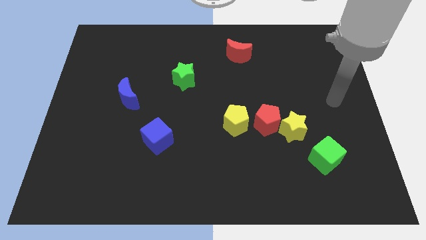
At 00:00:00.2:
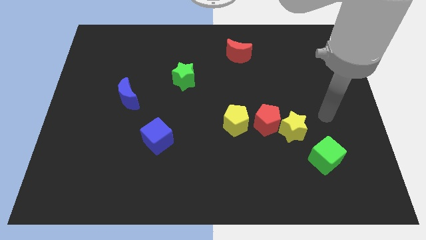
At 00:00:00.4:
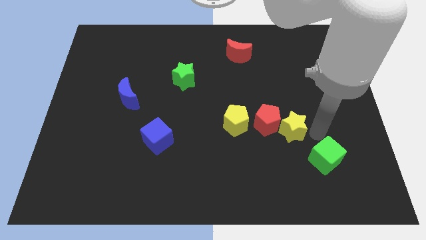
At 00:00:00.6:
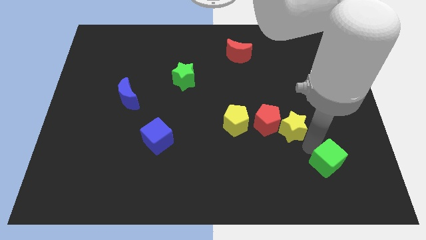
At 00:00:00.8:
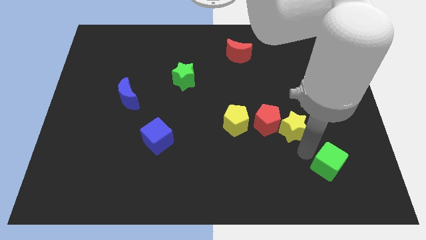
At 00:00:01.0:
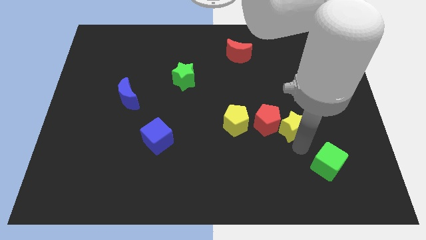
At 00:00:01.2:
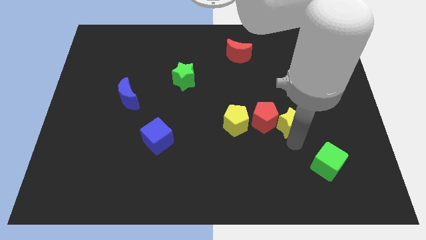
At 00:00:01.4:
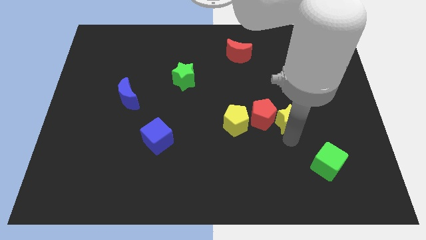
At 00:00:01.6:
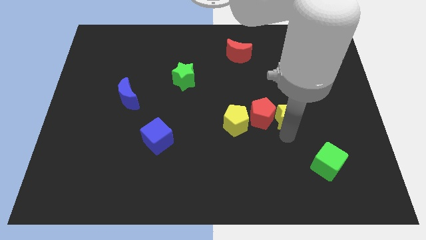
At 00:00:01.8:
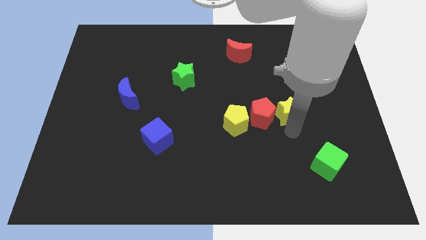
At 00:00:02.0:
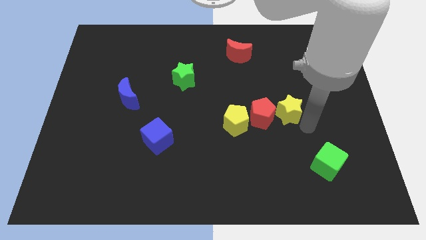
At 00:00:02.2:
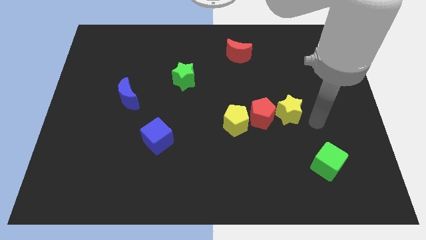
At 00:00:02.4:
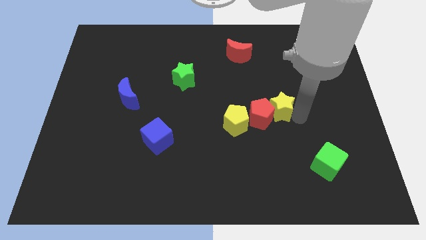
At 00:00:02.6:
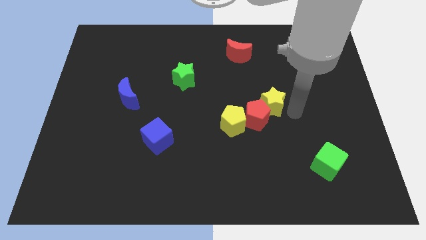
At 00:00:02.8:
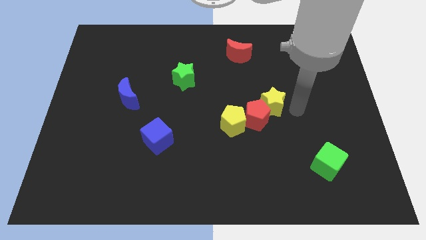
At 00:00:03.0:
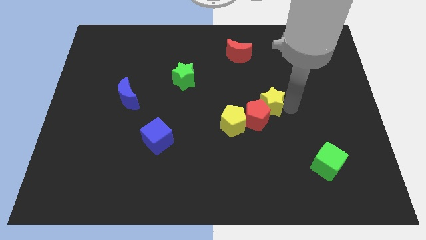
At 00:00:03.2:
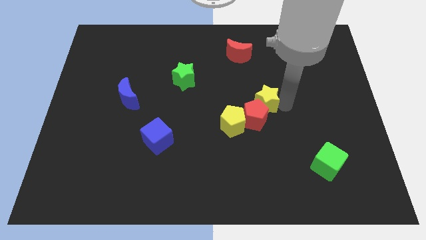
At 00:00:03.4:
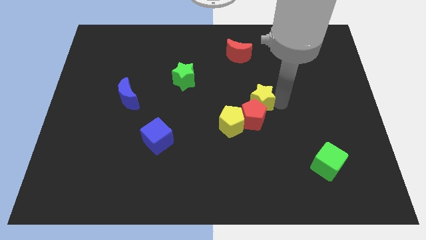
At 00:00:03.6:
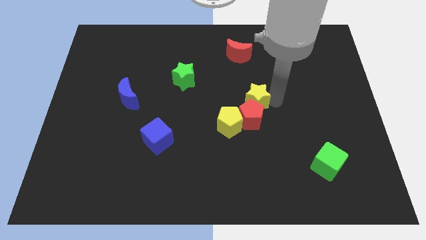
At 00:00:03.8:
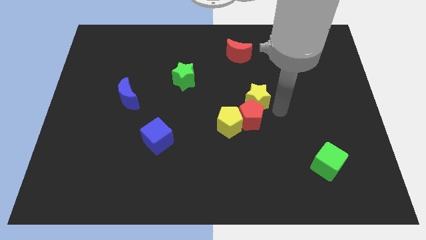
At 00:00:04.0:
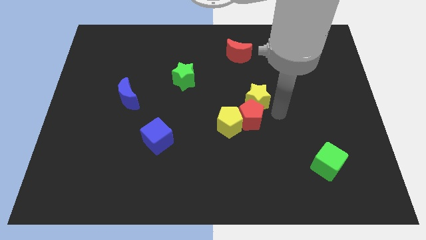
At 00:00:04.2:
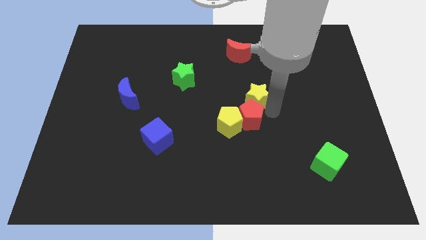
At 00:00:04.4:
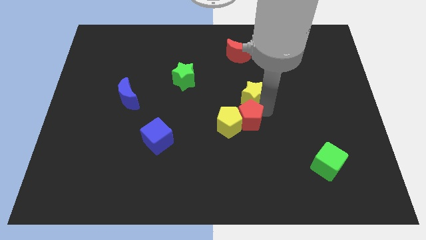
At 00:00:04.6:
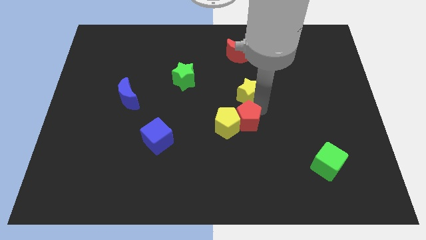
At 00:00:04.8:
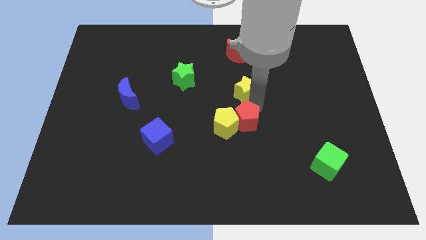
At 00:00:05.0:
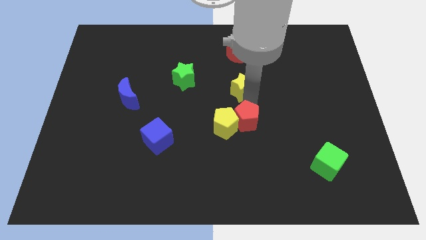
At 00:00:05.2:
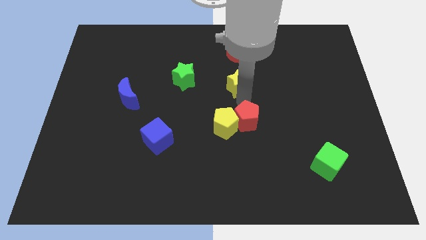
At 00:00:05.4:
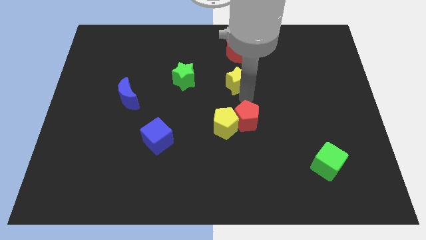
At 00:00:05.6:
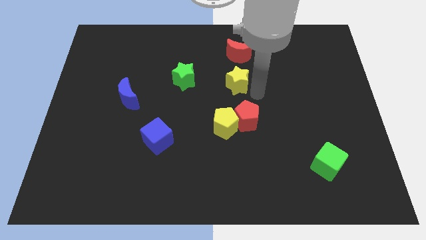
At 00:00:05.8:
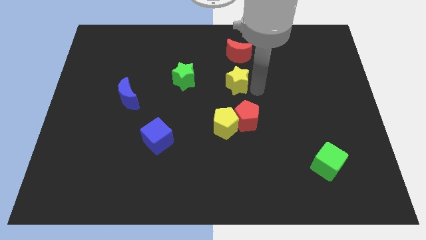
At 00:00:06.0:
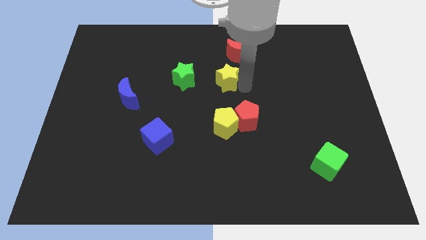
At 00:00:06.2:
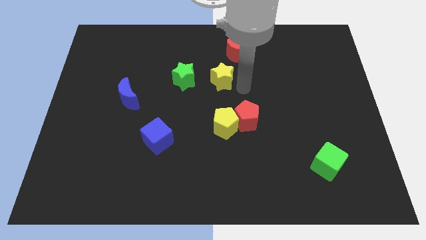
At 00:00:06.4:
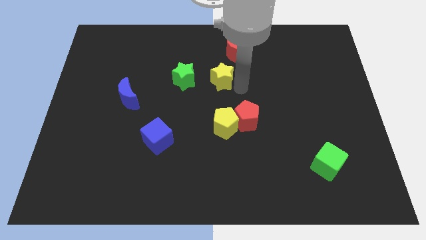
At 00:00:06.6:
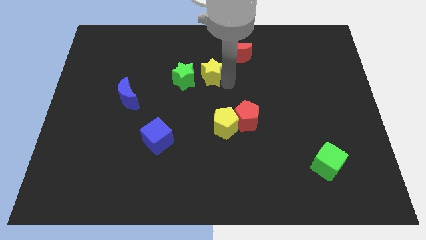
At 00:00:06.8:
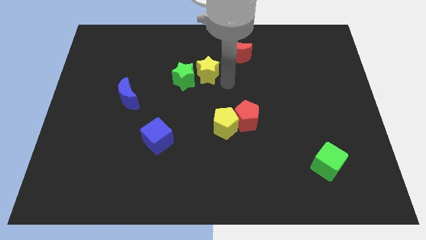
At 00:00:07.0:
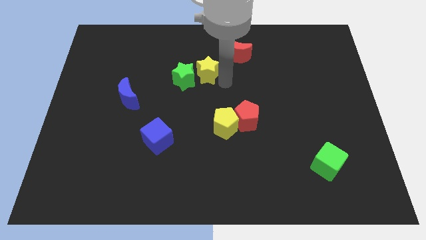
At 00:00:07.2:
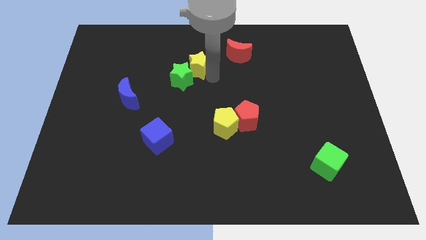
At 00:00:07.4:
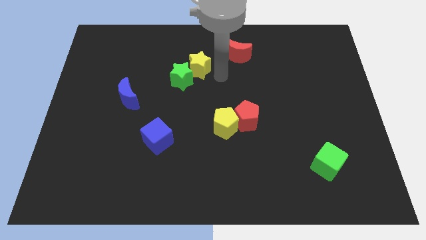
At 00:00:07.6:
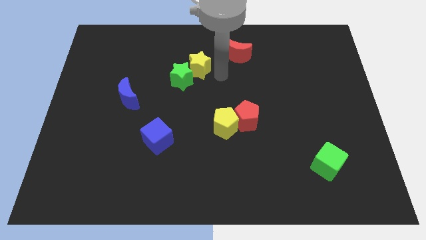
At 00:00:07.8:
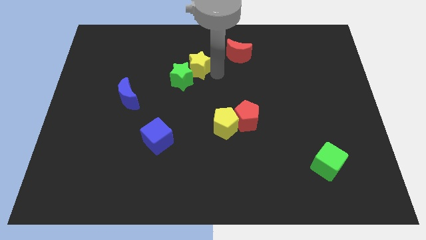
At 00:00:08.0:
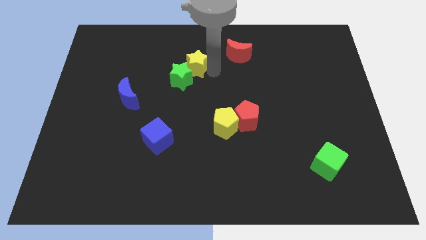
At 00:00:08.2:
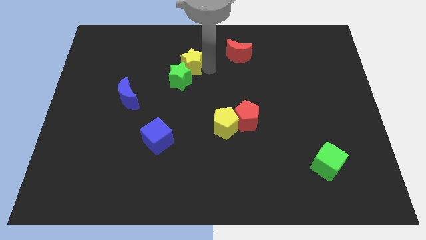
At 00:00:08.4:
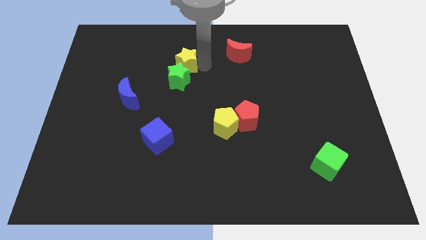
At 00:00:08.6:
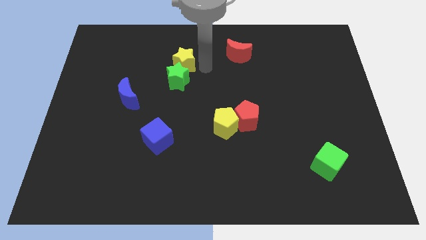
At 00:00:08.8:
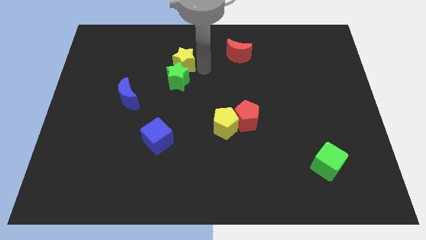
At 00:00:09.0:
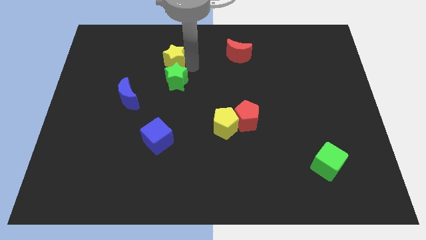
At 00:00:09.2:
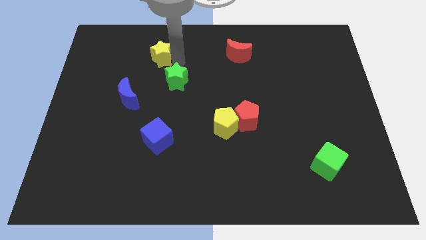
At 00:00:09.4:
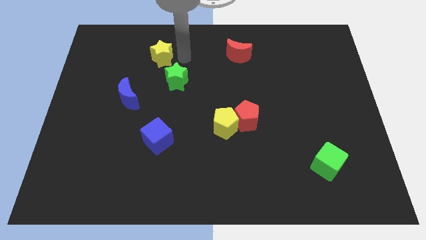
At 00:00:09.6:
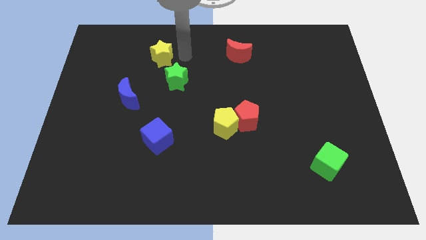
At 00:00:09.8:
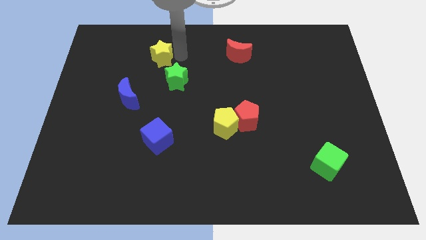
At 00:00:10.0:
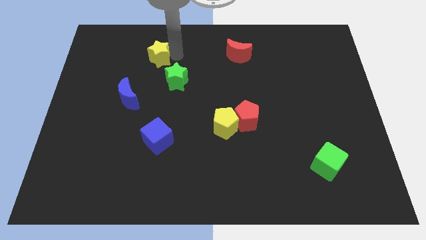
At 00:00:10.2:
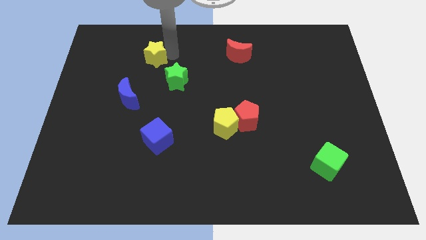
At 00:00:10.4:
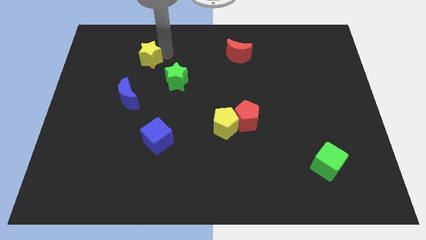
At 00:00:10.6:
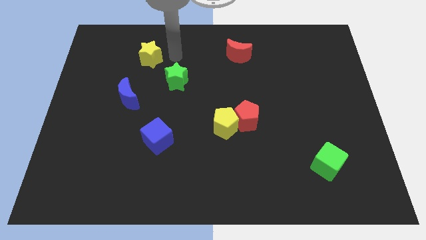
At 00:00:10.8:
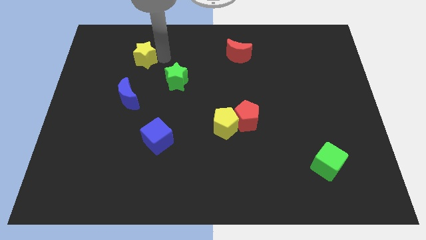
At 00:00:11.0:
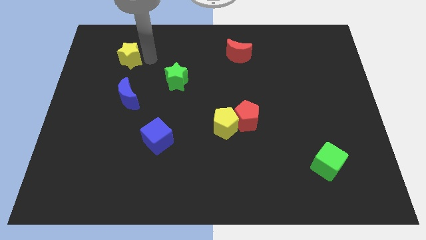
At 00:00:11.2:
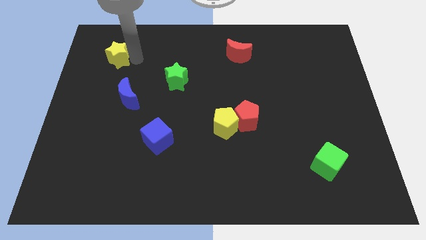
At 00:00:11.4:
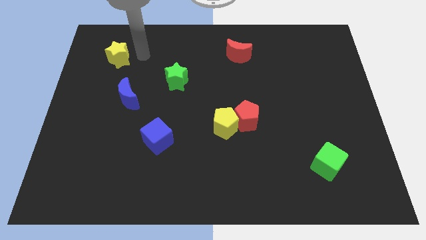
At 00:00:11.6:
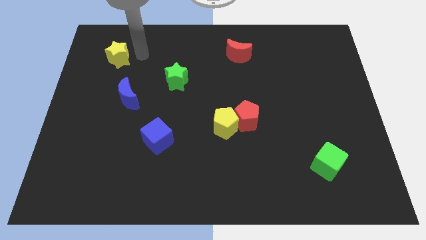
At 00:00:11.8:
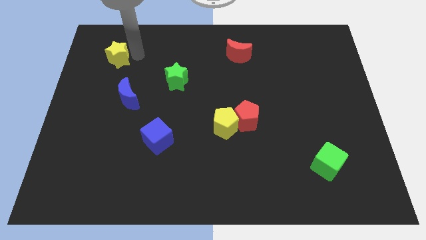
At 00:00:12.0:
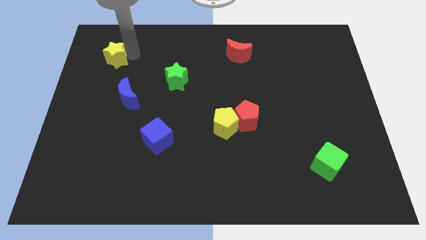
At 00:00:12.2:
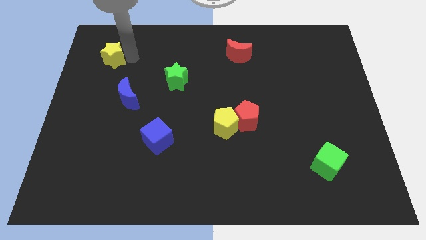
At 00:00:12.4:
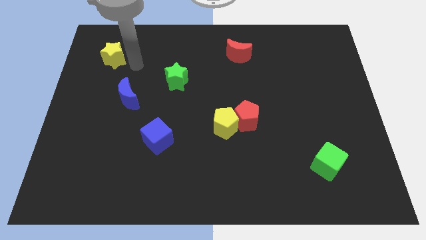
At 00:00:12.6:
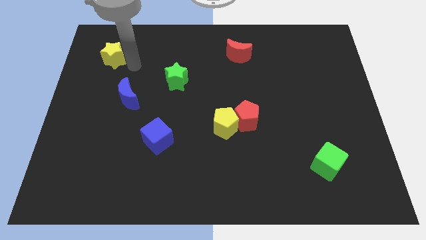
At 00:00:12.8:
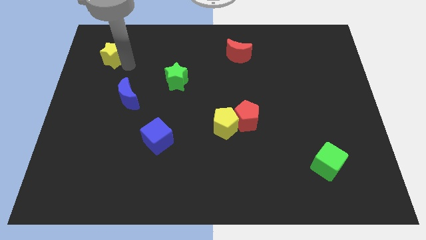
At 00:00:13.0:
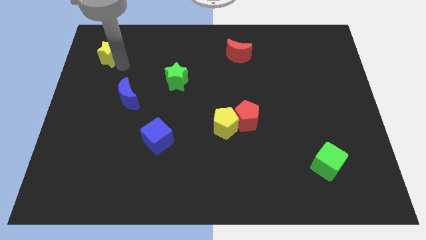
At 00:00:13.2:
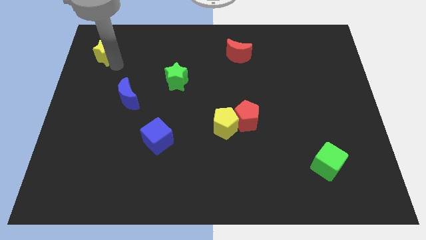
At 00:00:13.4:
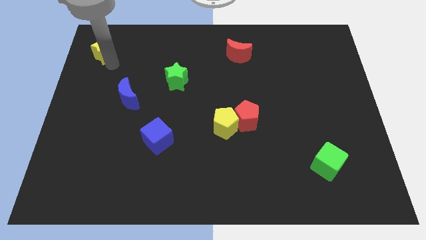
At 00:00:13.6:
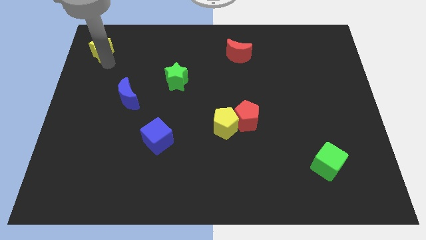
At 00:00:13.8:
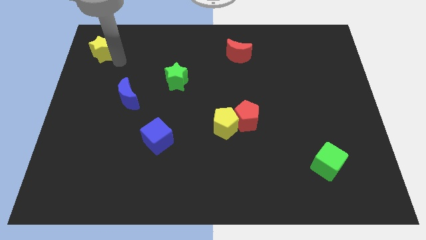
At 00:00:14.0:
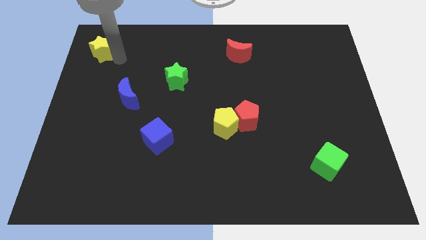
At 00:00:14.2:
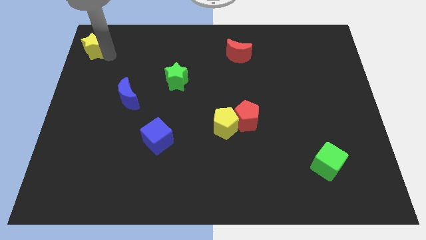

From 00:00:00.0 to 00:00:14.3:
slide the yellow star to the top left
